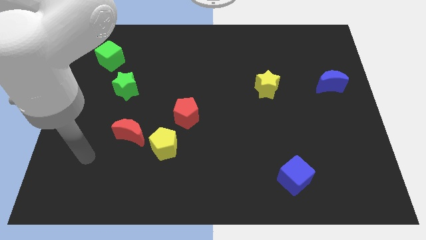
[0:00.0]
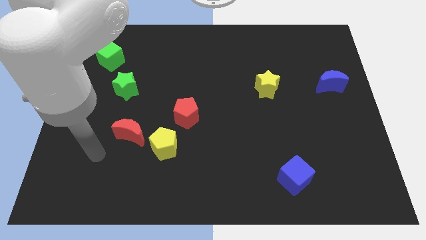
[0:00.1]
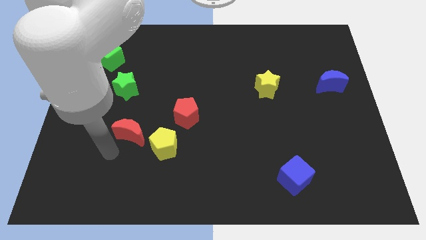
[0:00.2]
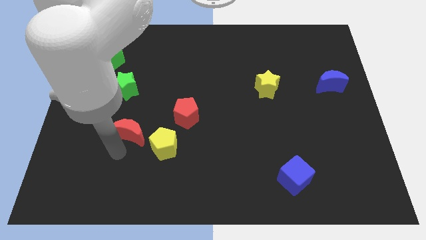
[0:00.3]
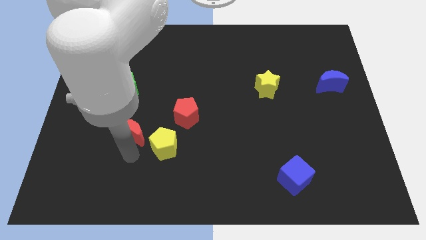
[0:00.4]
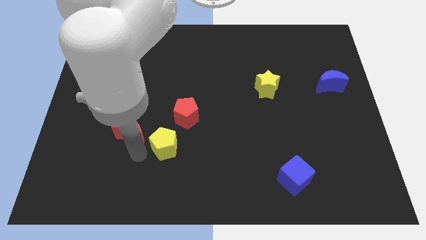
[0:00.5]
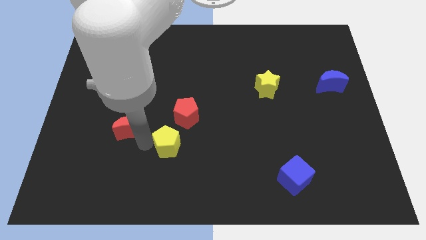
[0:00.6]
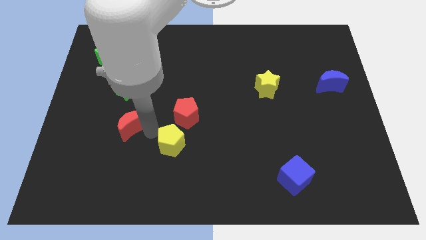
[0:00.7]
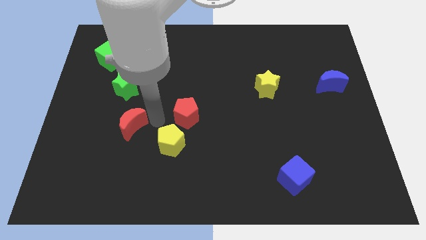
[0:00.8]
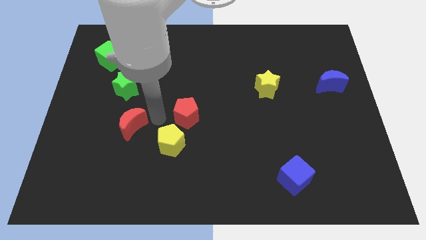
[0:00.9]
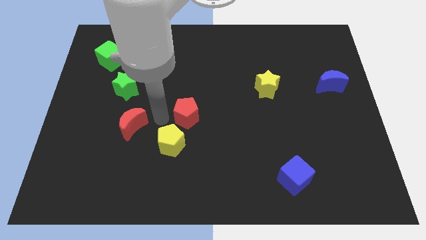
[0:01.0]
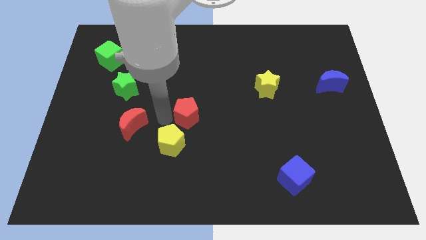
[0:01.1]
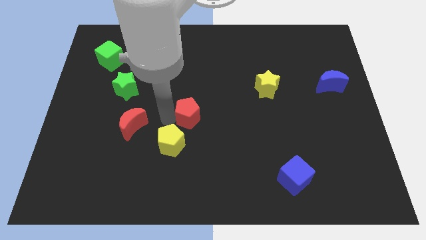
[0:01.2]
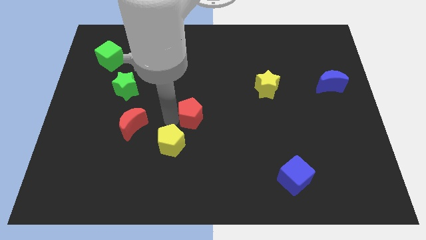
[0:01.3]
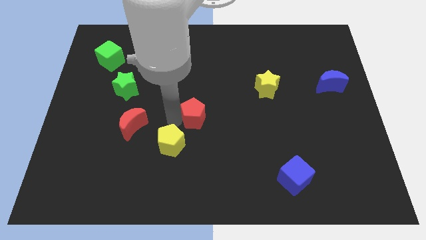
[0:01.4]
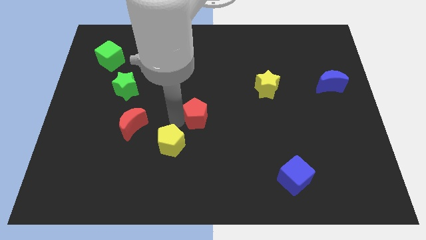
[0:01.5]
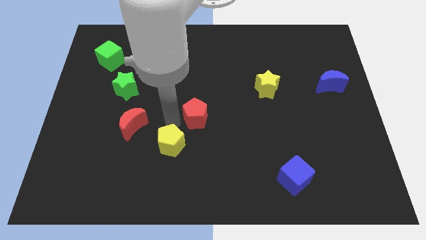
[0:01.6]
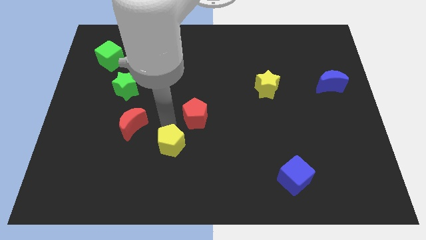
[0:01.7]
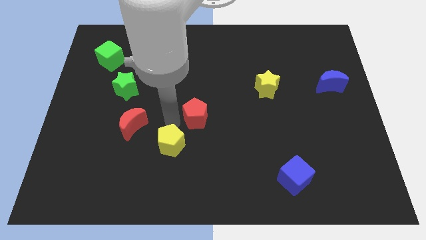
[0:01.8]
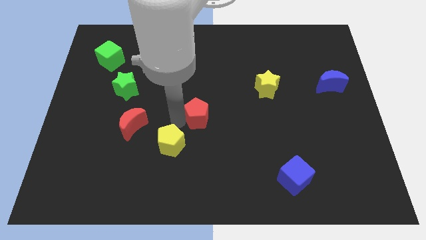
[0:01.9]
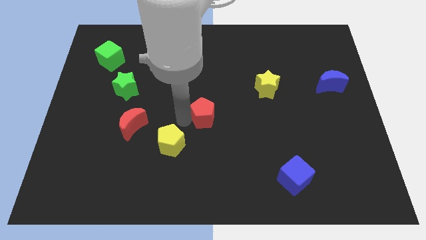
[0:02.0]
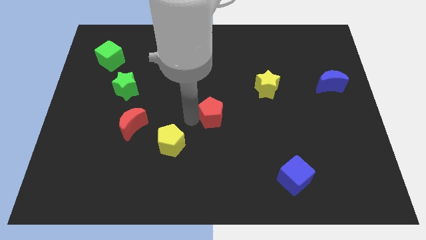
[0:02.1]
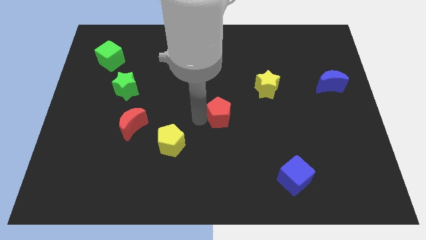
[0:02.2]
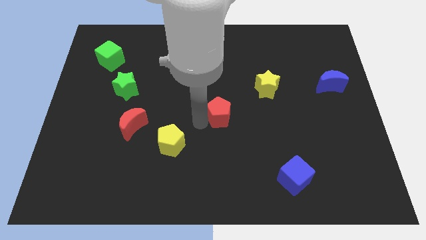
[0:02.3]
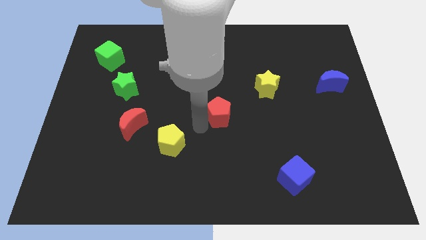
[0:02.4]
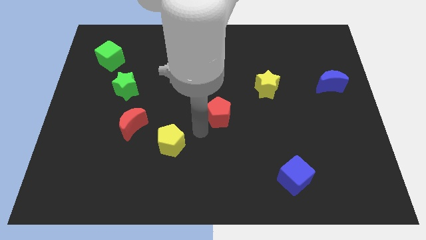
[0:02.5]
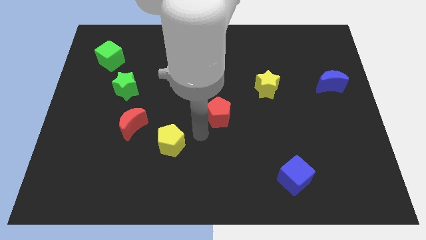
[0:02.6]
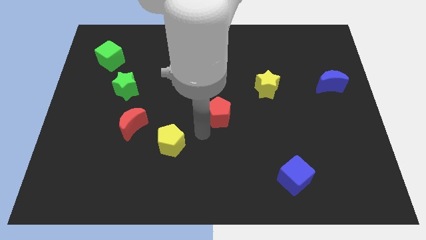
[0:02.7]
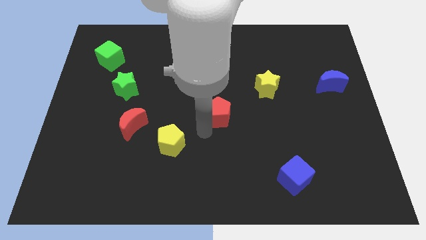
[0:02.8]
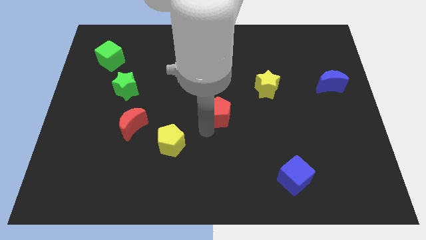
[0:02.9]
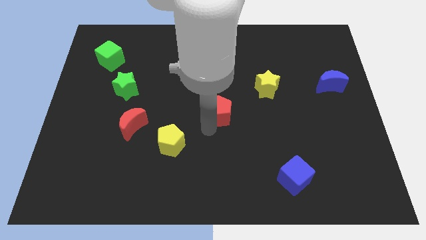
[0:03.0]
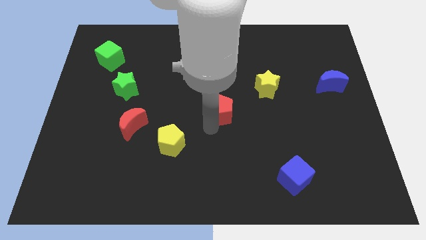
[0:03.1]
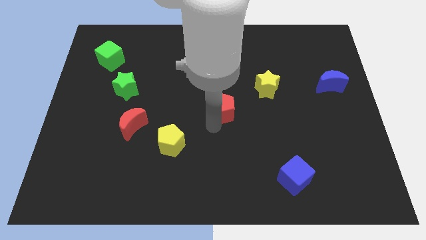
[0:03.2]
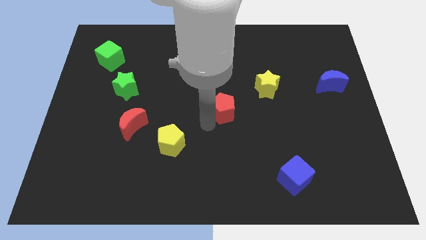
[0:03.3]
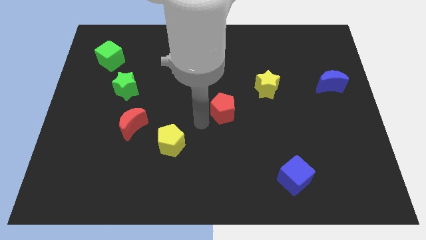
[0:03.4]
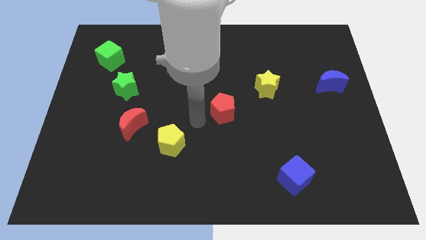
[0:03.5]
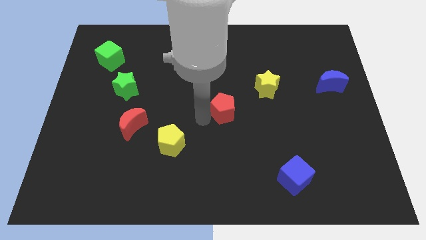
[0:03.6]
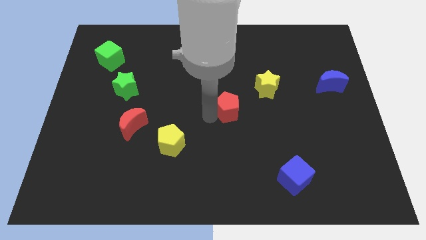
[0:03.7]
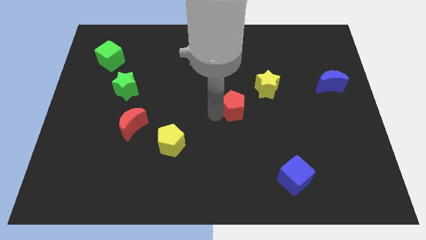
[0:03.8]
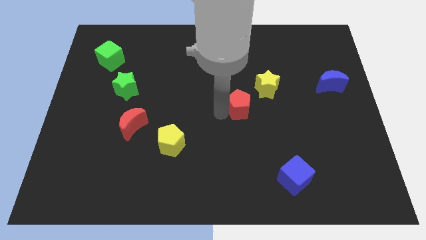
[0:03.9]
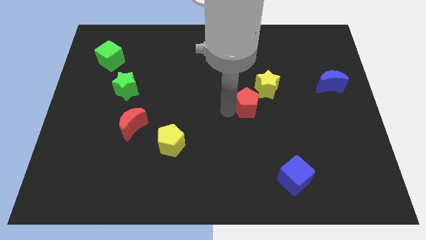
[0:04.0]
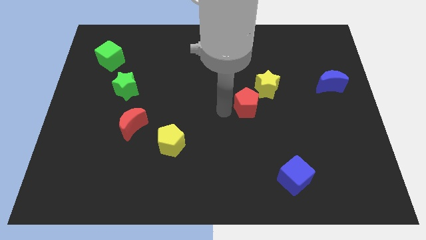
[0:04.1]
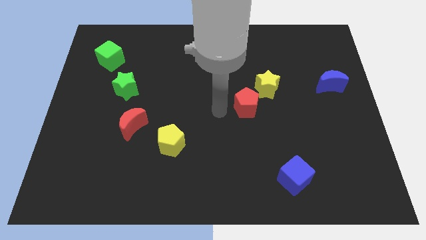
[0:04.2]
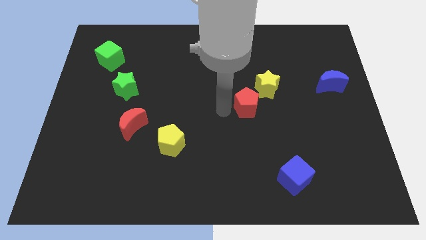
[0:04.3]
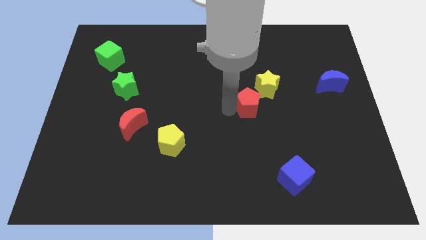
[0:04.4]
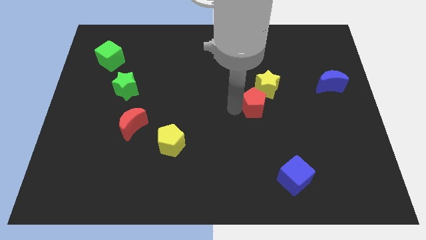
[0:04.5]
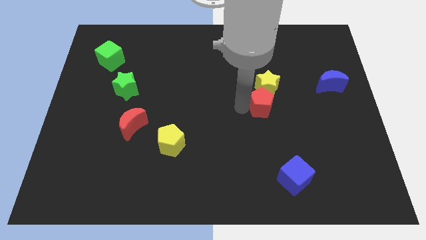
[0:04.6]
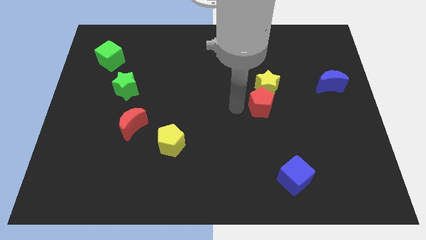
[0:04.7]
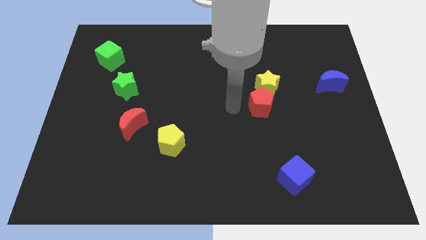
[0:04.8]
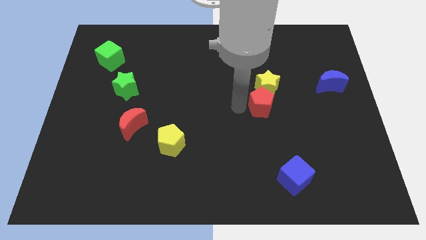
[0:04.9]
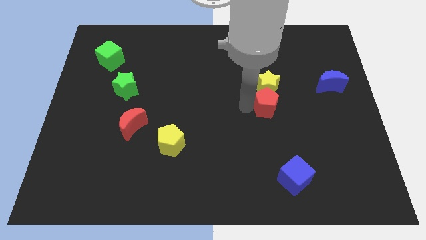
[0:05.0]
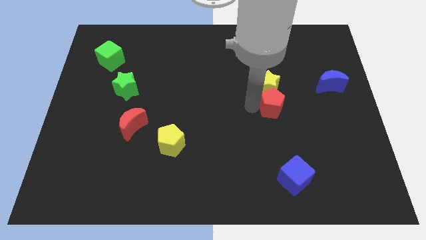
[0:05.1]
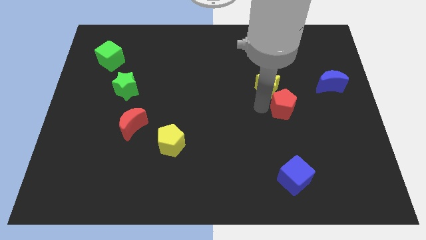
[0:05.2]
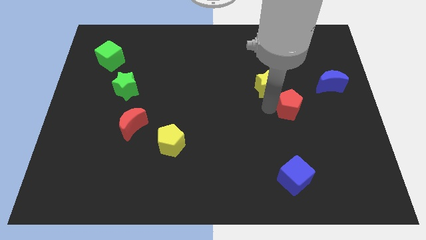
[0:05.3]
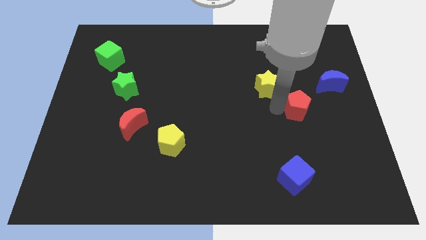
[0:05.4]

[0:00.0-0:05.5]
push the red pentagon to the bottom left side of the blue moon

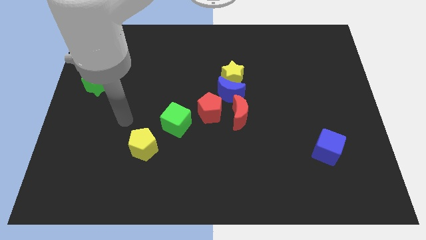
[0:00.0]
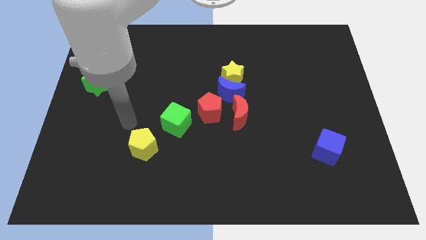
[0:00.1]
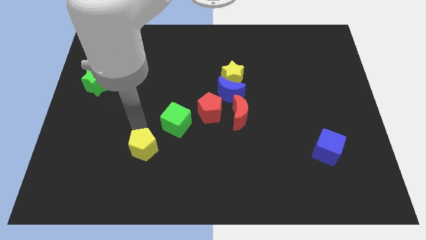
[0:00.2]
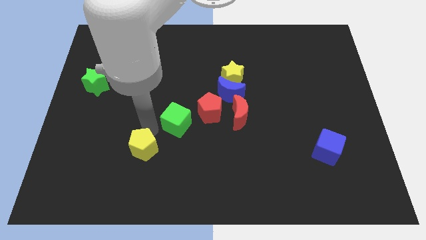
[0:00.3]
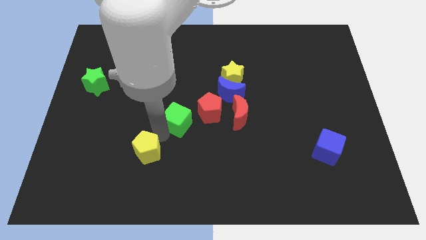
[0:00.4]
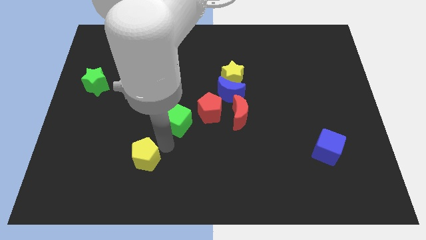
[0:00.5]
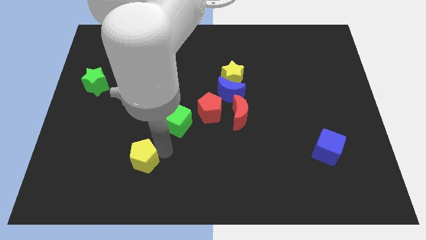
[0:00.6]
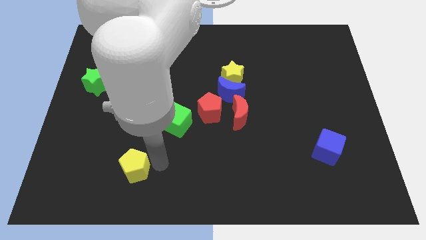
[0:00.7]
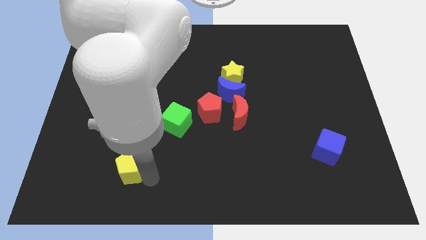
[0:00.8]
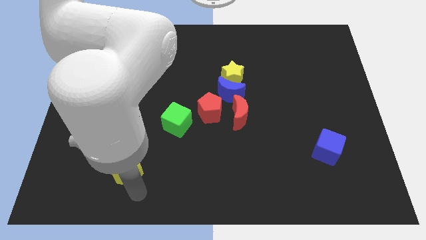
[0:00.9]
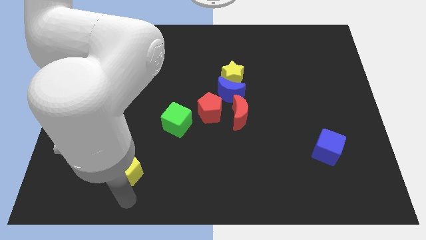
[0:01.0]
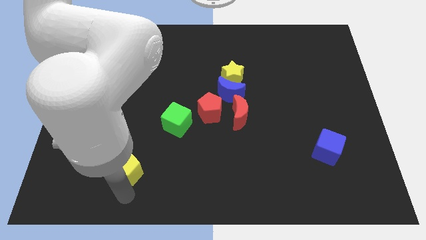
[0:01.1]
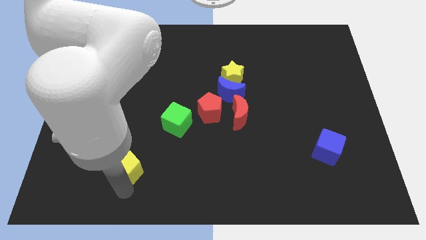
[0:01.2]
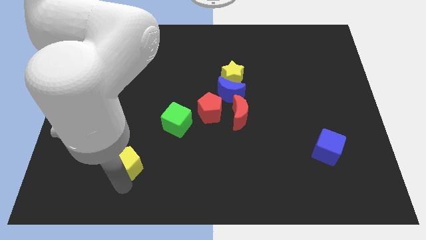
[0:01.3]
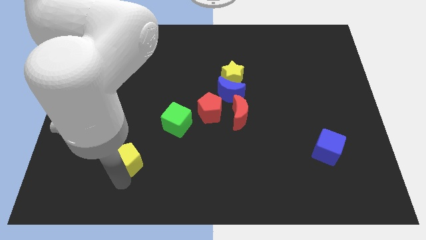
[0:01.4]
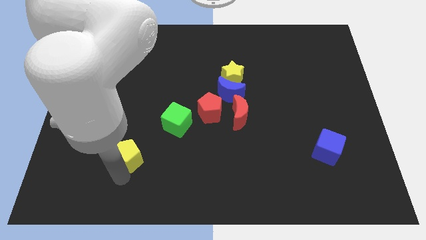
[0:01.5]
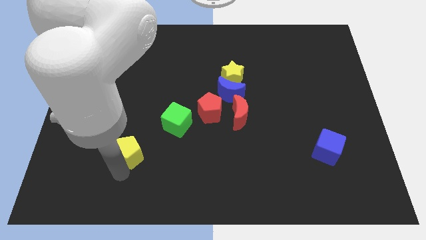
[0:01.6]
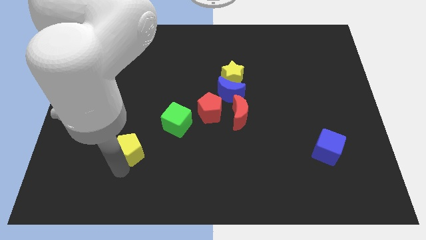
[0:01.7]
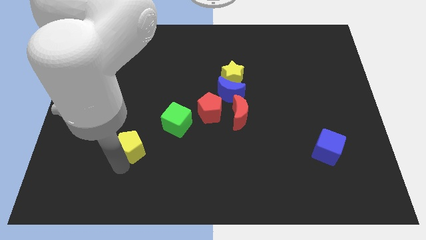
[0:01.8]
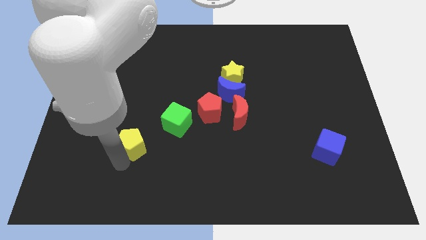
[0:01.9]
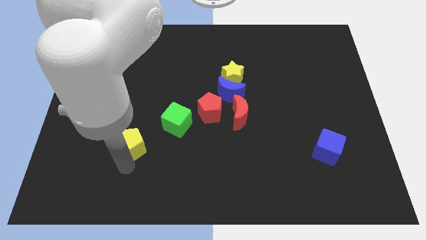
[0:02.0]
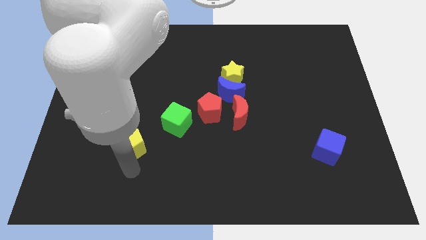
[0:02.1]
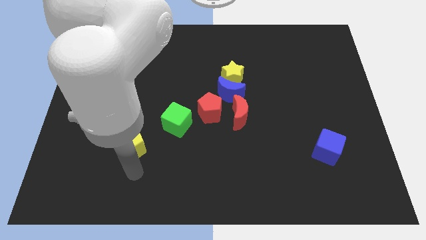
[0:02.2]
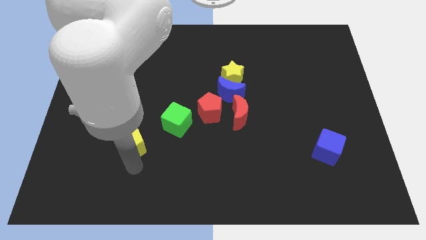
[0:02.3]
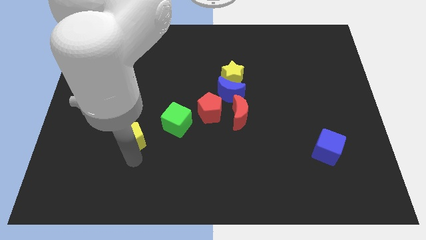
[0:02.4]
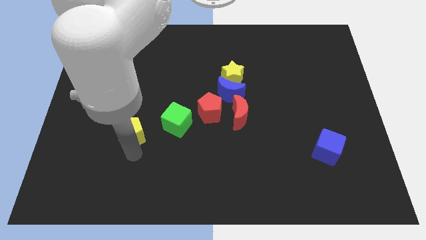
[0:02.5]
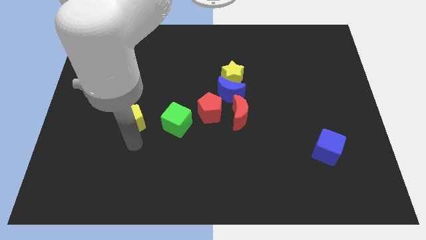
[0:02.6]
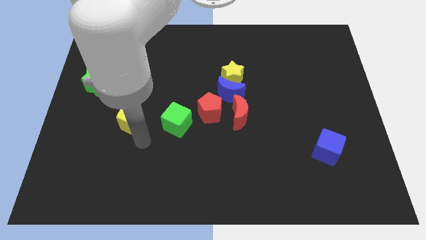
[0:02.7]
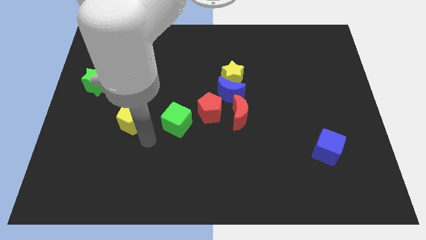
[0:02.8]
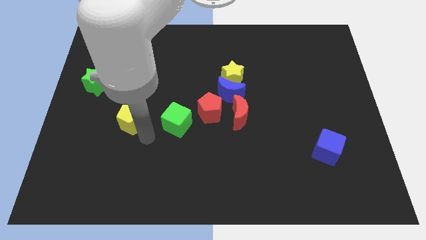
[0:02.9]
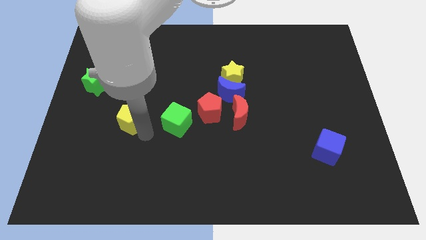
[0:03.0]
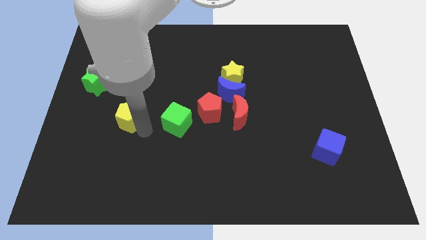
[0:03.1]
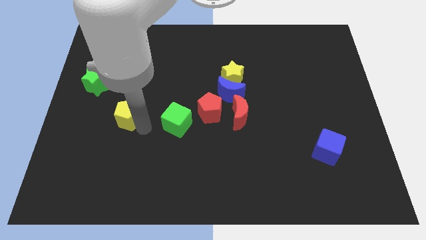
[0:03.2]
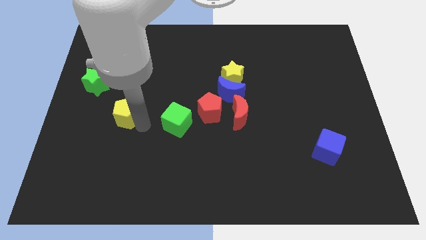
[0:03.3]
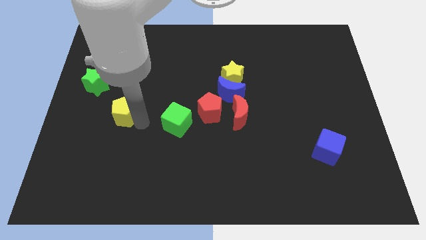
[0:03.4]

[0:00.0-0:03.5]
put the yellow pentagon to the bottom right side of the green star
